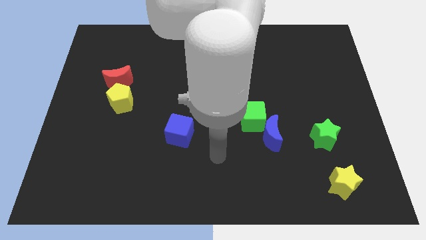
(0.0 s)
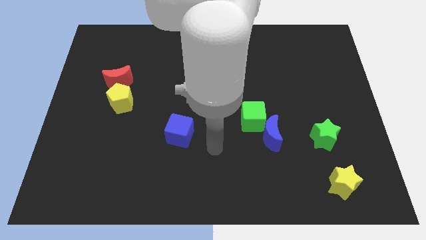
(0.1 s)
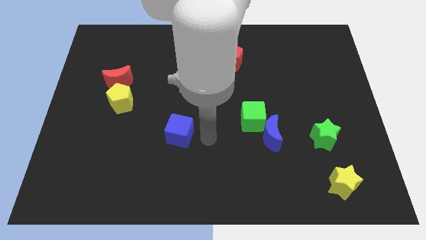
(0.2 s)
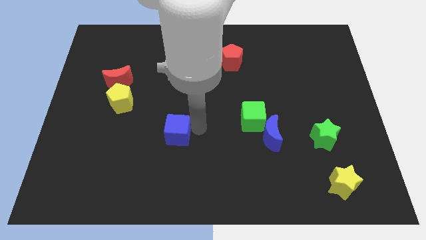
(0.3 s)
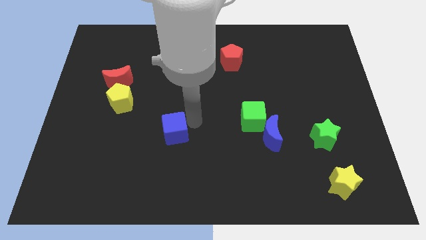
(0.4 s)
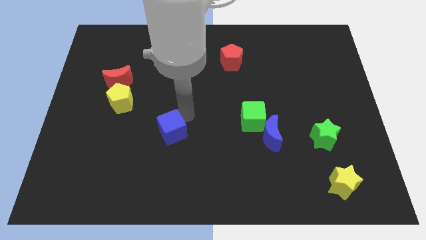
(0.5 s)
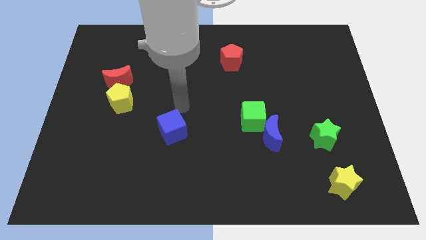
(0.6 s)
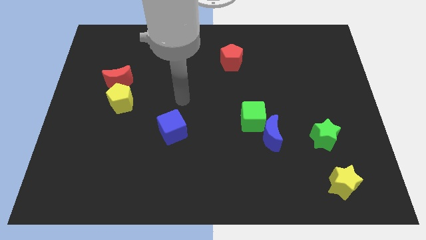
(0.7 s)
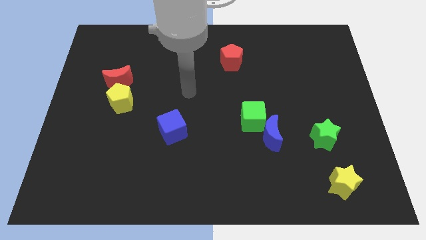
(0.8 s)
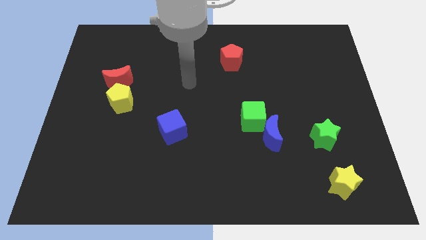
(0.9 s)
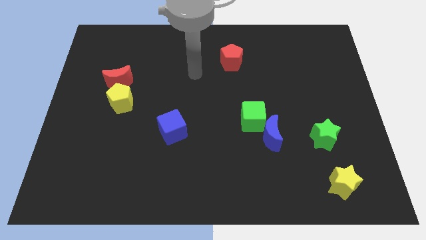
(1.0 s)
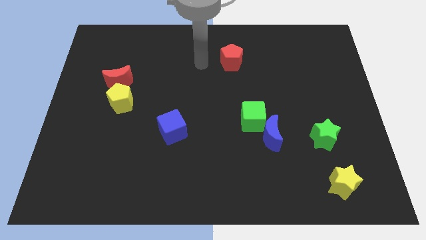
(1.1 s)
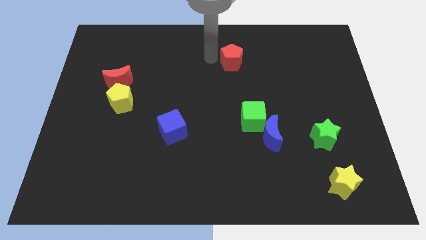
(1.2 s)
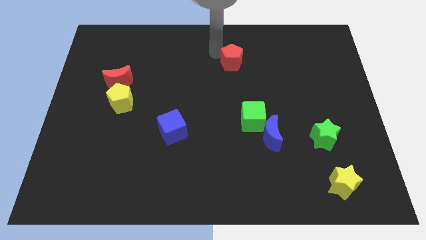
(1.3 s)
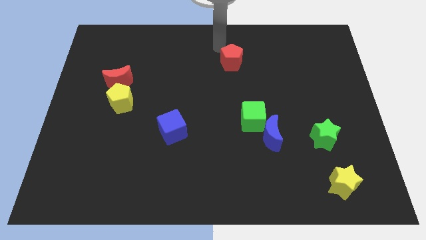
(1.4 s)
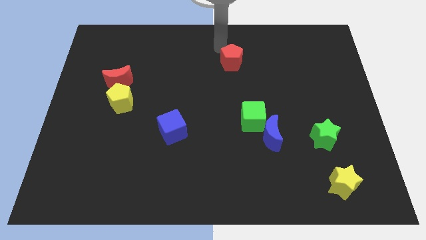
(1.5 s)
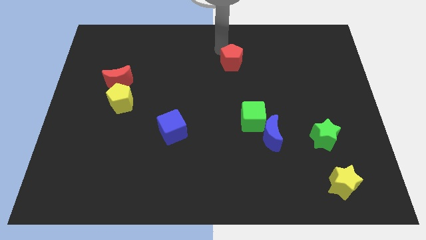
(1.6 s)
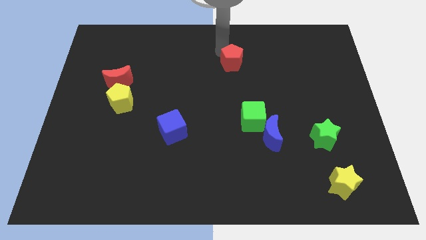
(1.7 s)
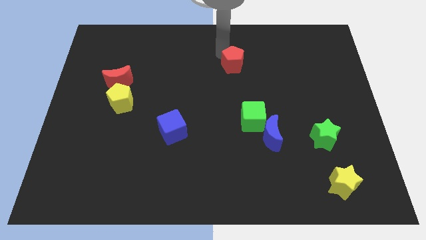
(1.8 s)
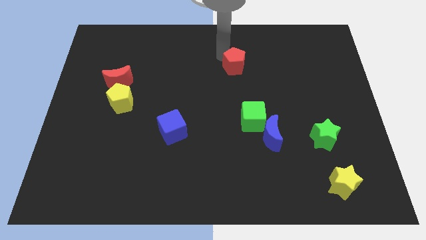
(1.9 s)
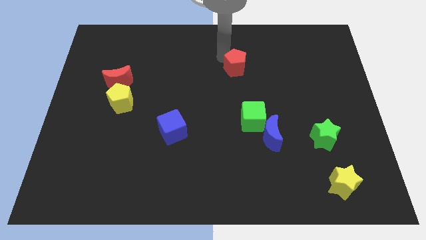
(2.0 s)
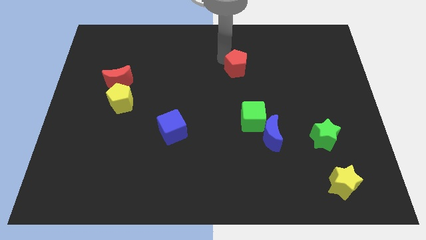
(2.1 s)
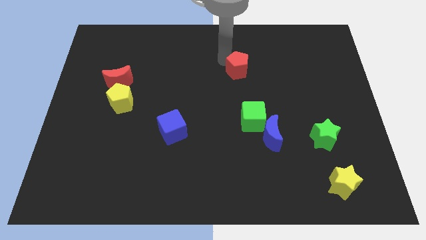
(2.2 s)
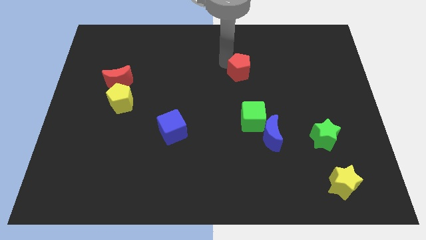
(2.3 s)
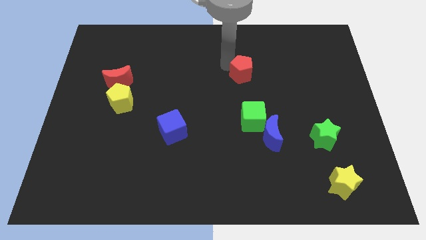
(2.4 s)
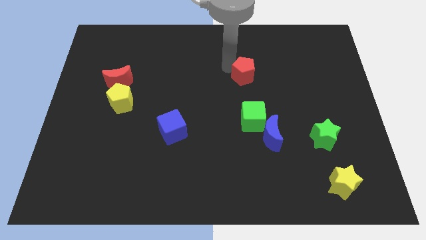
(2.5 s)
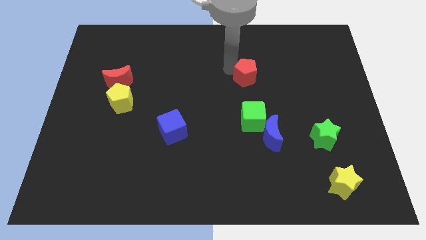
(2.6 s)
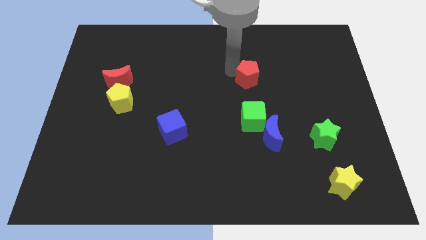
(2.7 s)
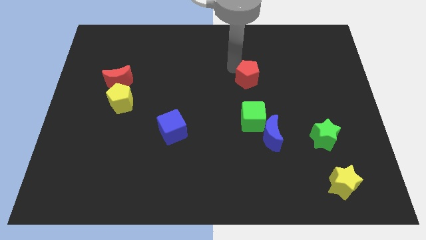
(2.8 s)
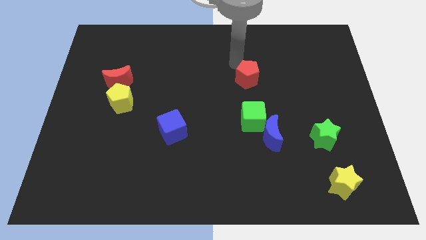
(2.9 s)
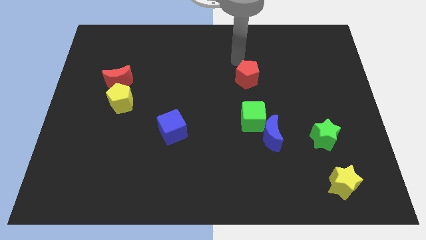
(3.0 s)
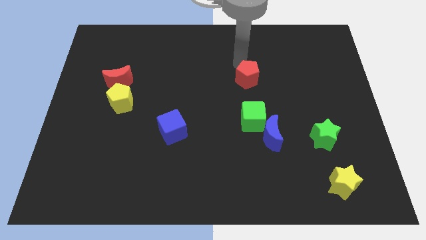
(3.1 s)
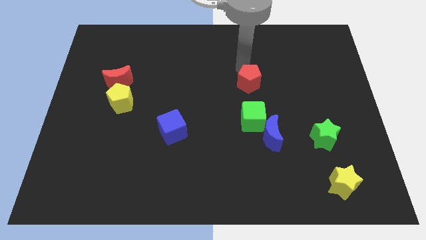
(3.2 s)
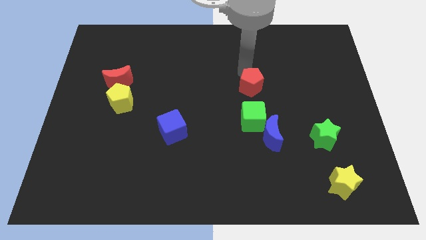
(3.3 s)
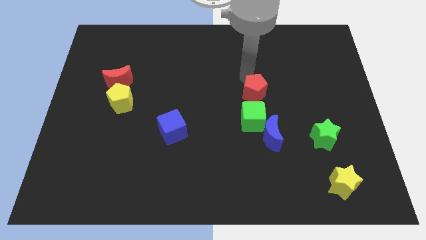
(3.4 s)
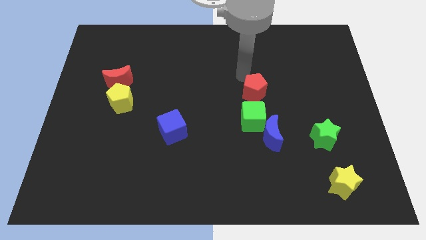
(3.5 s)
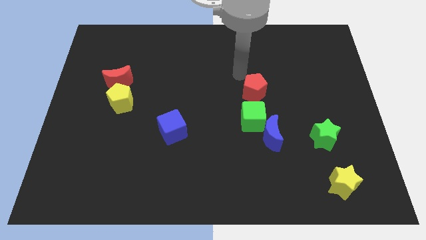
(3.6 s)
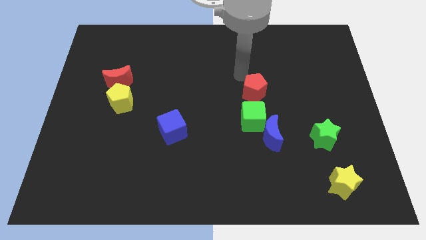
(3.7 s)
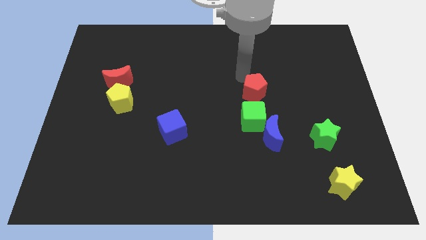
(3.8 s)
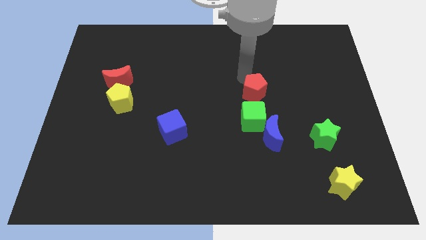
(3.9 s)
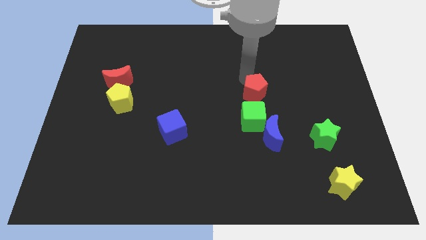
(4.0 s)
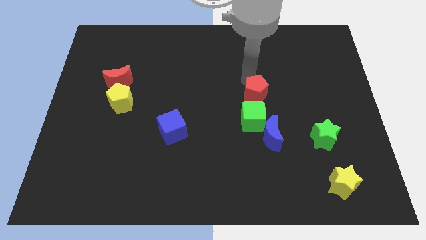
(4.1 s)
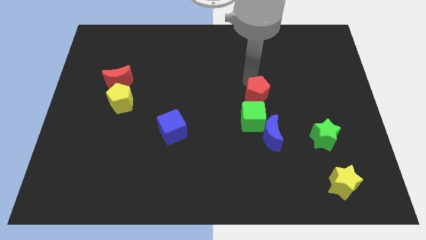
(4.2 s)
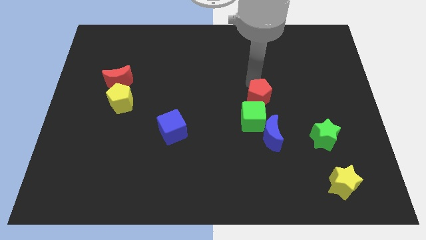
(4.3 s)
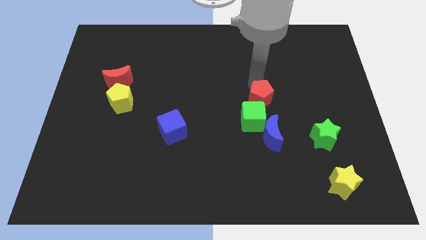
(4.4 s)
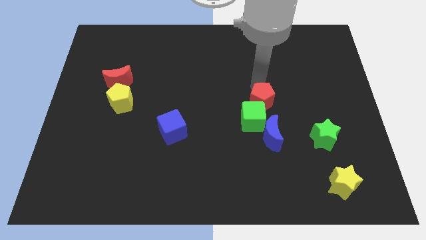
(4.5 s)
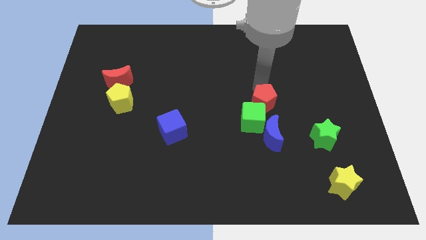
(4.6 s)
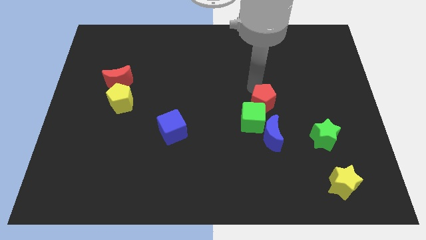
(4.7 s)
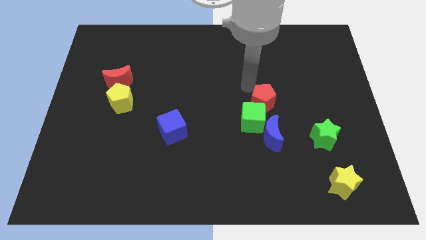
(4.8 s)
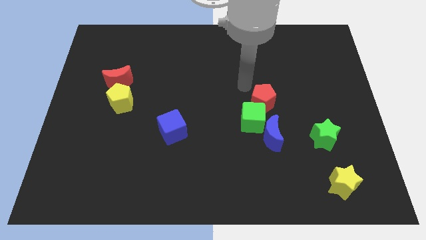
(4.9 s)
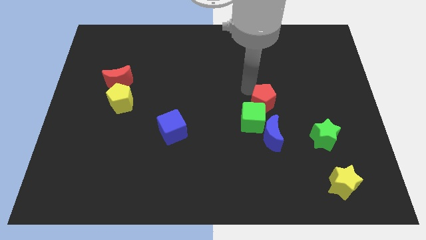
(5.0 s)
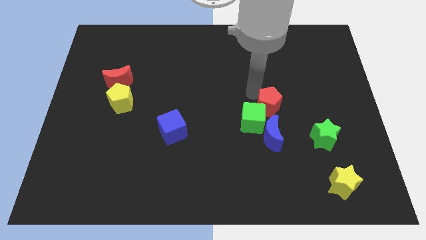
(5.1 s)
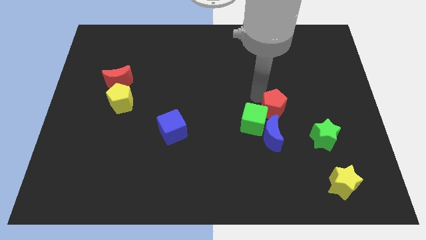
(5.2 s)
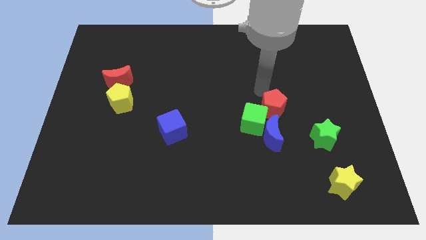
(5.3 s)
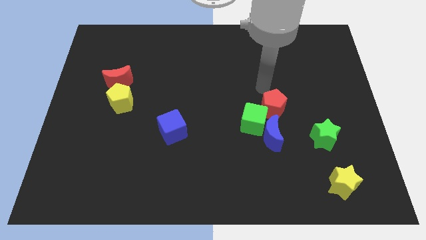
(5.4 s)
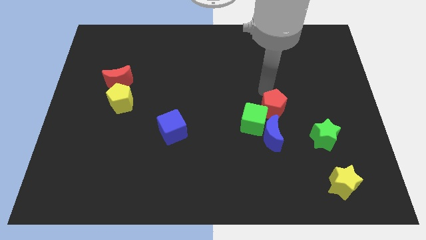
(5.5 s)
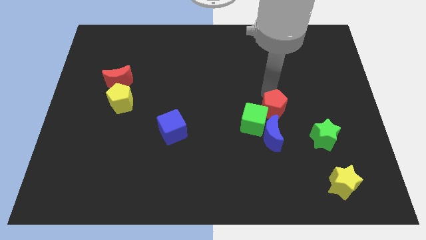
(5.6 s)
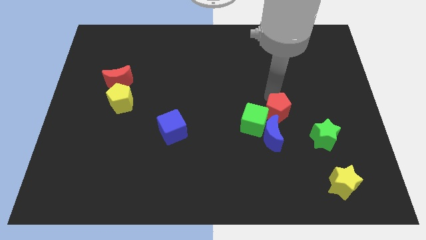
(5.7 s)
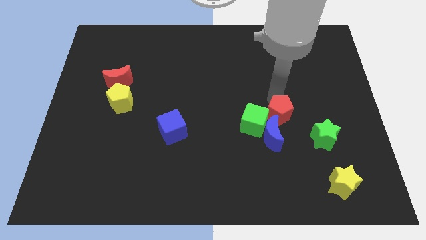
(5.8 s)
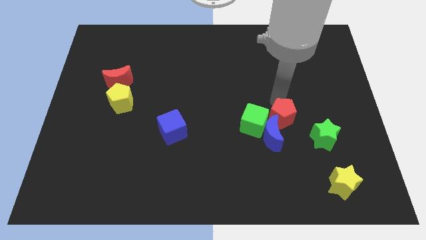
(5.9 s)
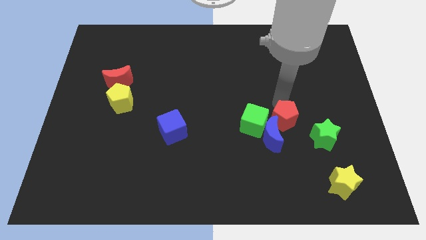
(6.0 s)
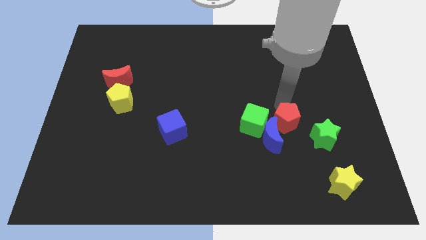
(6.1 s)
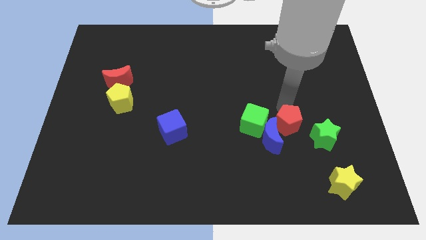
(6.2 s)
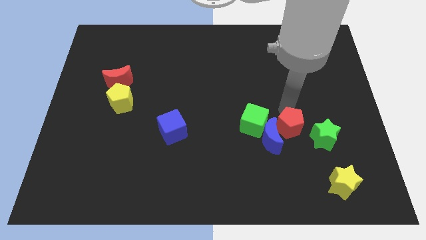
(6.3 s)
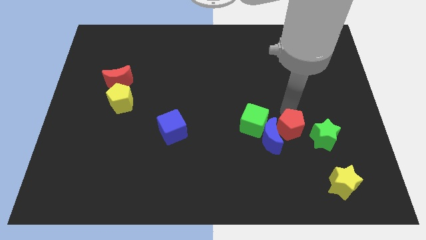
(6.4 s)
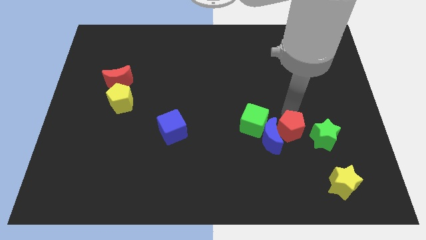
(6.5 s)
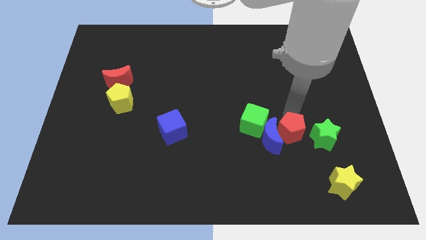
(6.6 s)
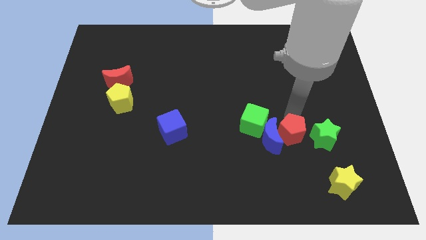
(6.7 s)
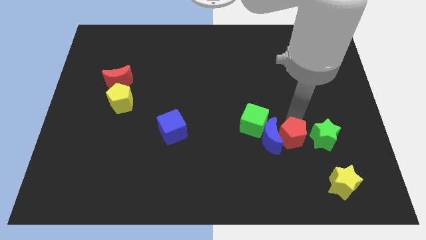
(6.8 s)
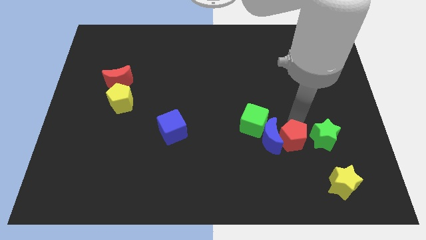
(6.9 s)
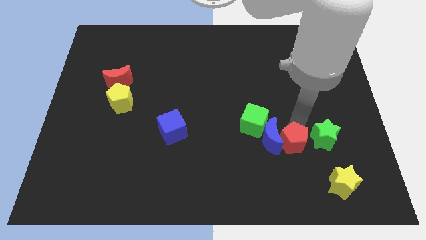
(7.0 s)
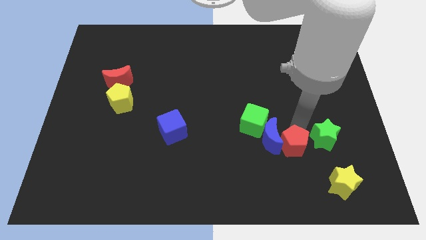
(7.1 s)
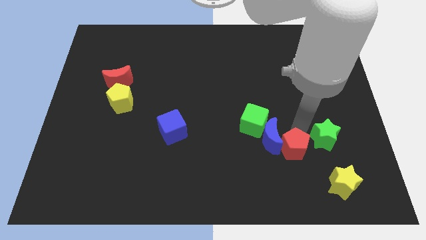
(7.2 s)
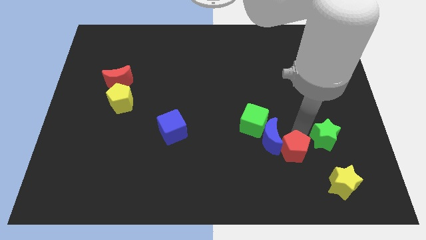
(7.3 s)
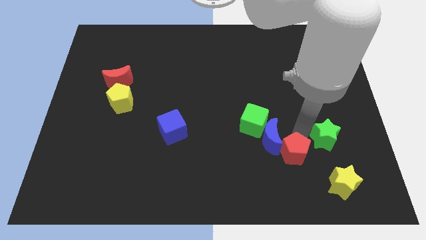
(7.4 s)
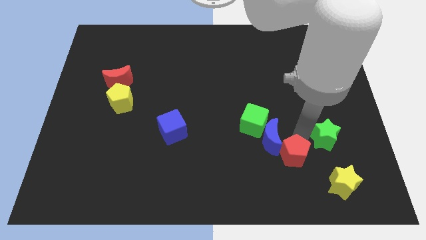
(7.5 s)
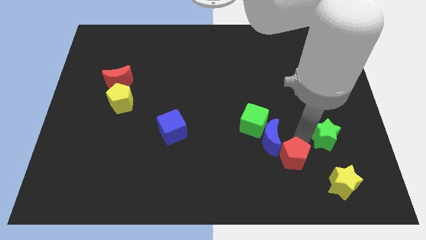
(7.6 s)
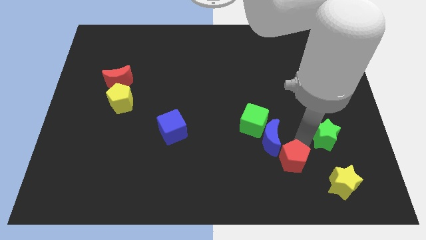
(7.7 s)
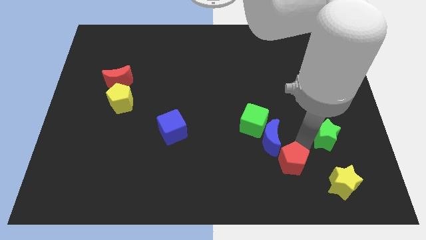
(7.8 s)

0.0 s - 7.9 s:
put the red pentagon left of the yellow star
